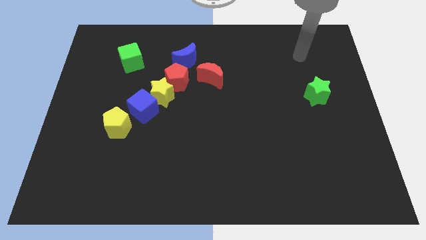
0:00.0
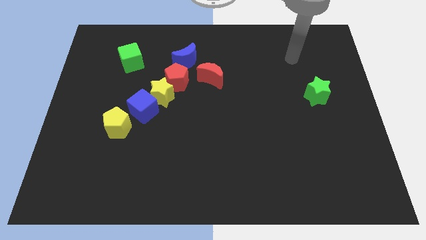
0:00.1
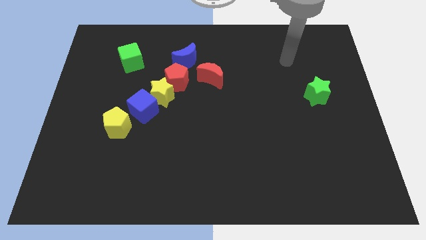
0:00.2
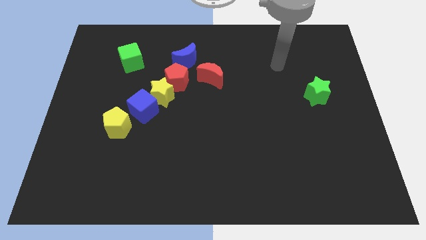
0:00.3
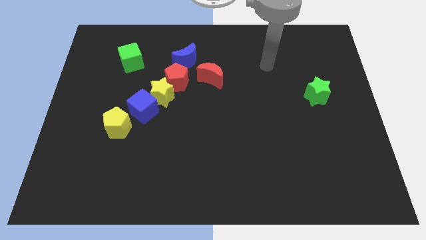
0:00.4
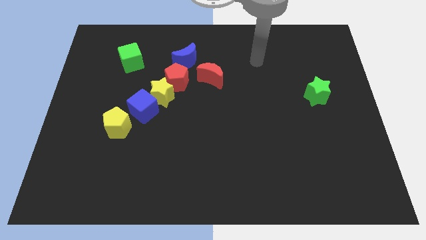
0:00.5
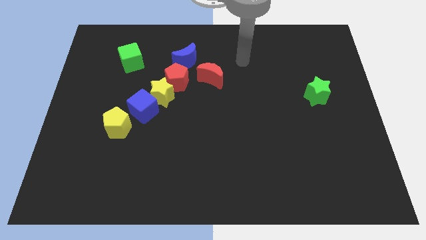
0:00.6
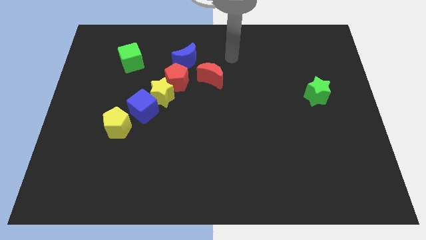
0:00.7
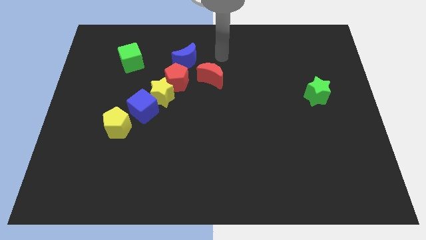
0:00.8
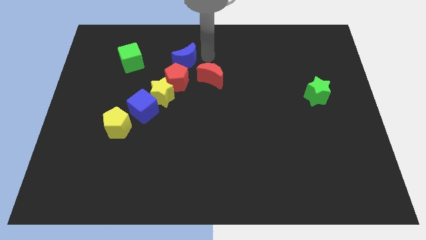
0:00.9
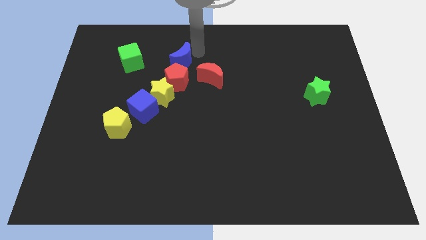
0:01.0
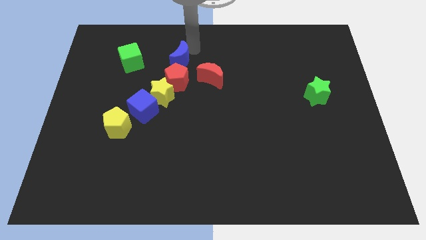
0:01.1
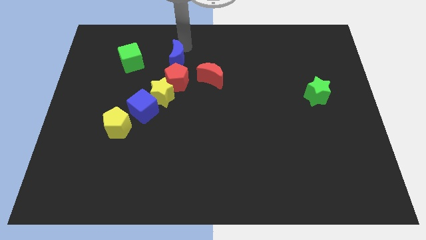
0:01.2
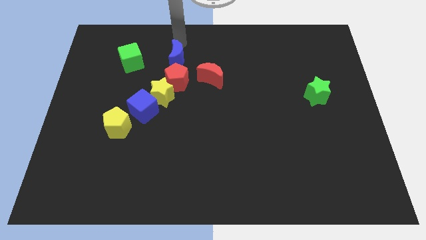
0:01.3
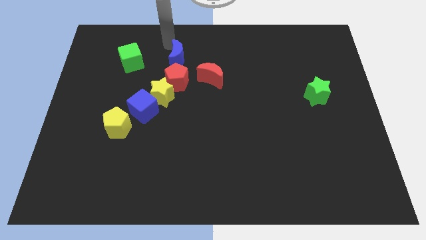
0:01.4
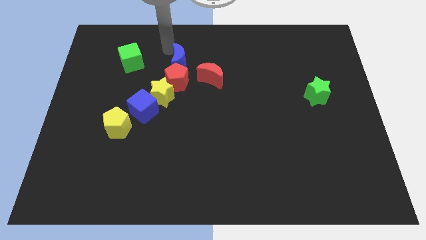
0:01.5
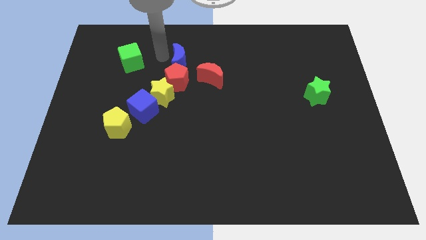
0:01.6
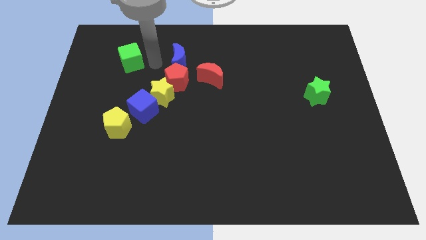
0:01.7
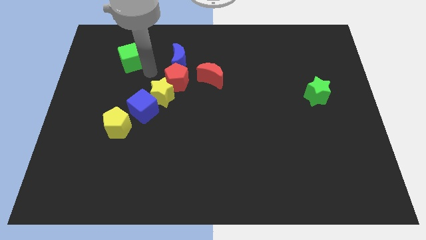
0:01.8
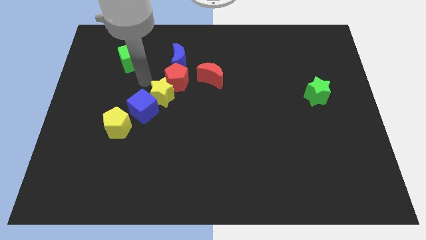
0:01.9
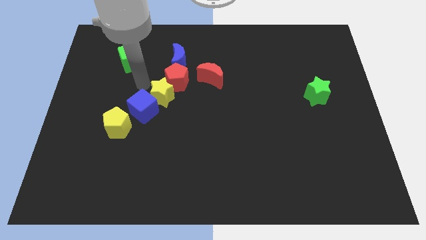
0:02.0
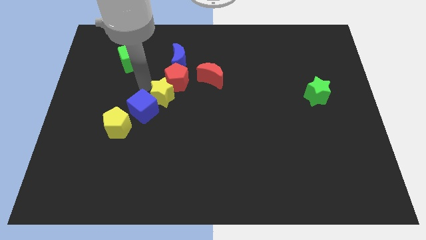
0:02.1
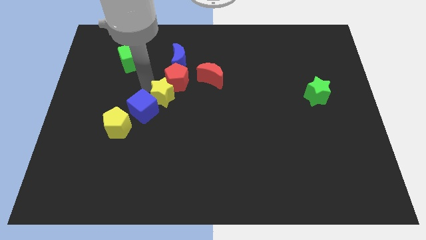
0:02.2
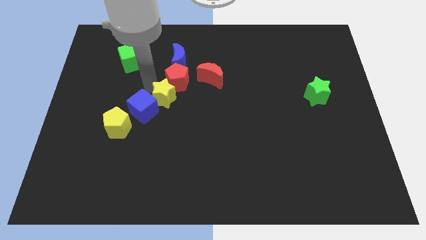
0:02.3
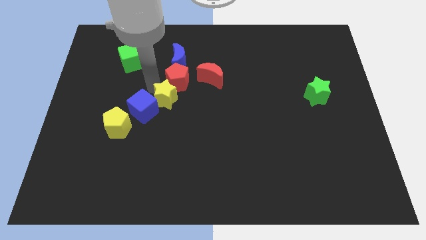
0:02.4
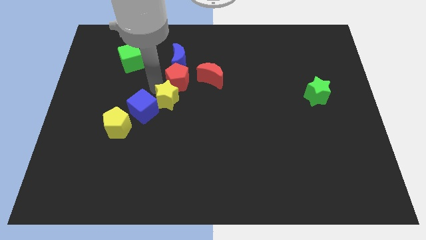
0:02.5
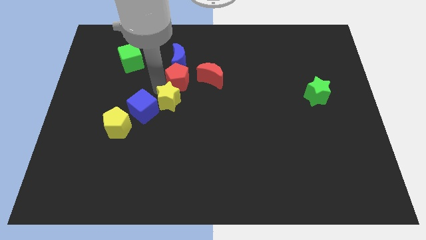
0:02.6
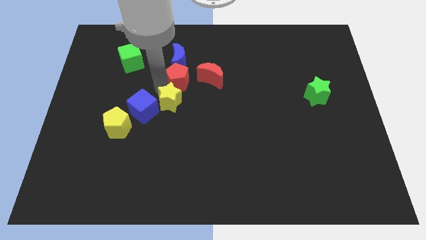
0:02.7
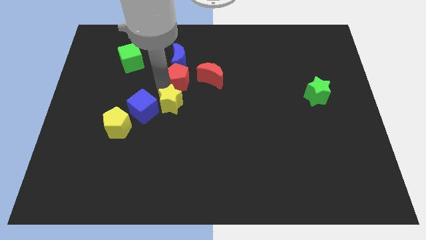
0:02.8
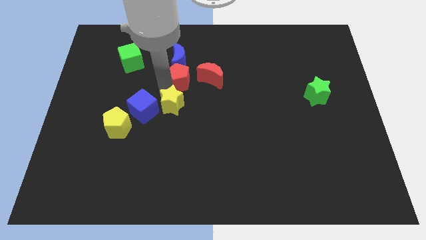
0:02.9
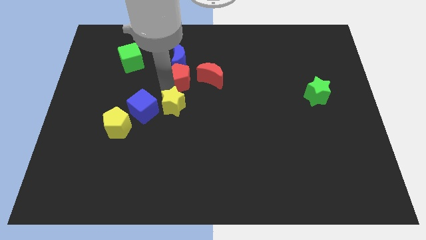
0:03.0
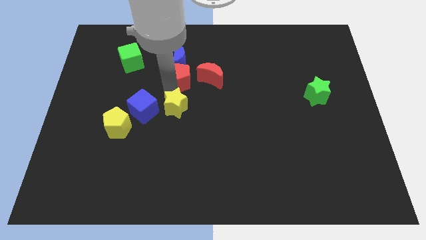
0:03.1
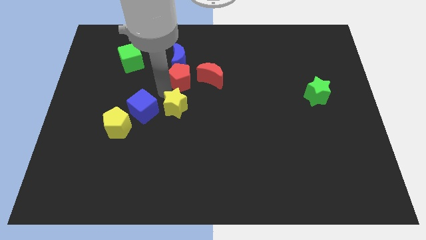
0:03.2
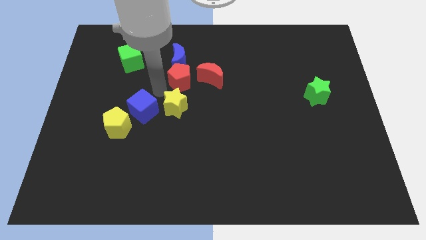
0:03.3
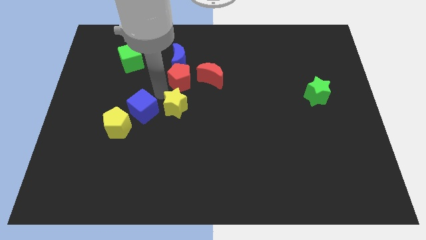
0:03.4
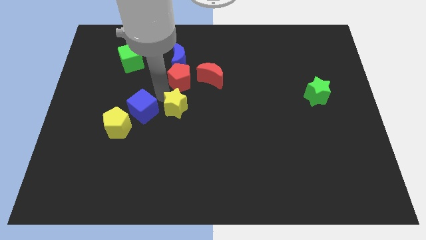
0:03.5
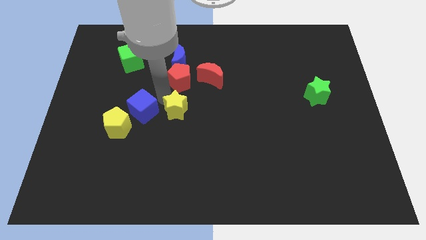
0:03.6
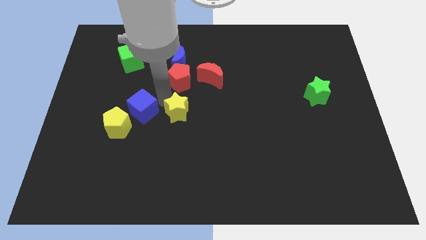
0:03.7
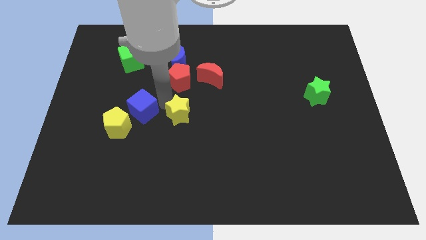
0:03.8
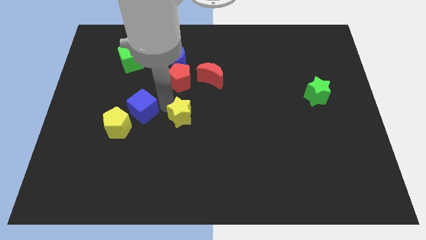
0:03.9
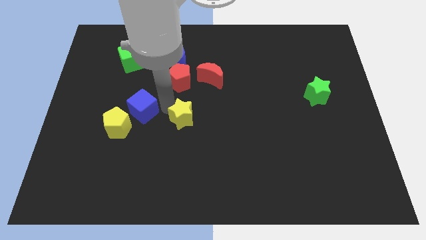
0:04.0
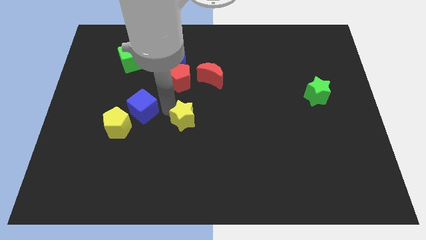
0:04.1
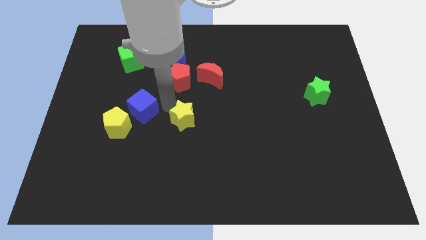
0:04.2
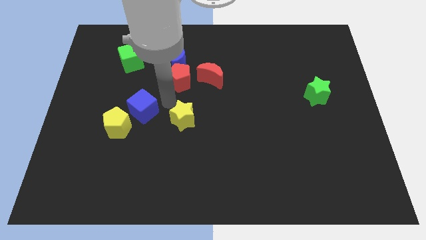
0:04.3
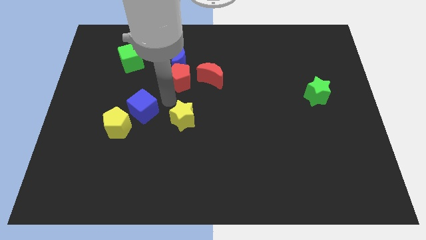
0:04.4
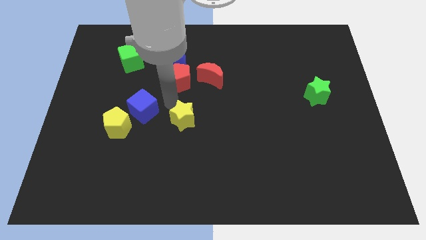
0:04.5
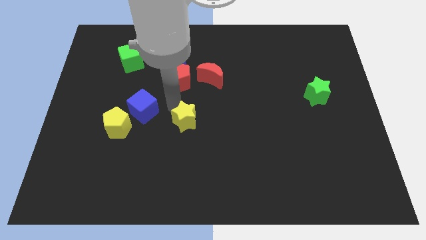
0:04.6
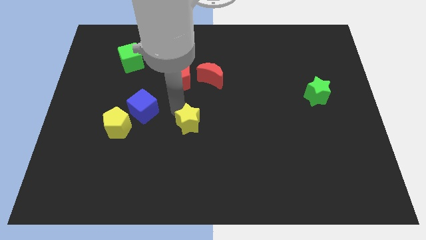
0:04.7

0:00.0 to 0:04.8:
move the yellow star away from the red pentagon and blue cube

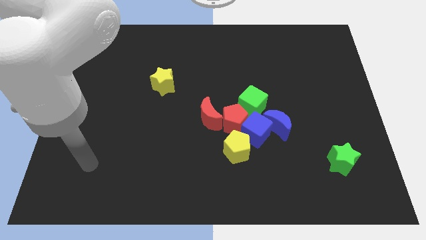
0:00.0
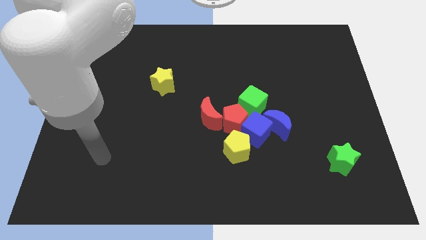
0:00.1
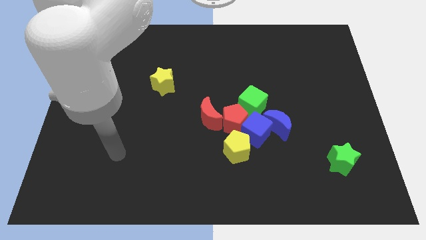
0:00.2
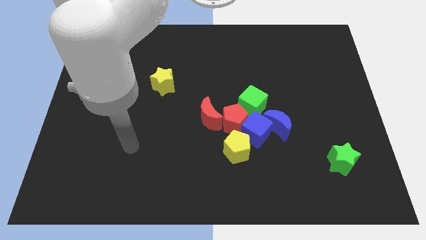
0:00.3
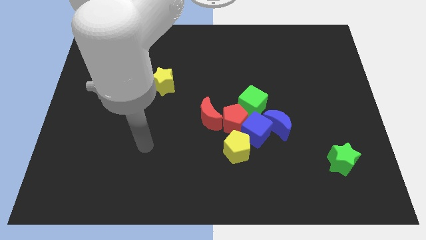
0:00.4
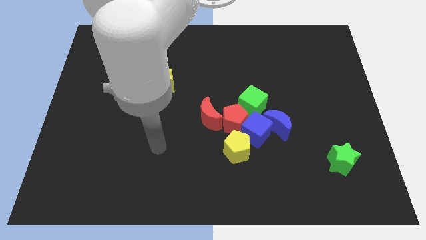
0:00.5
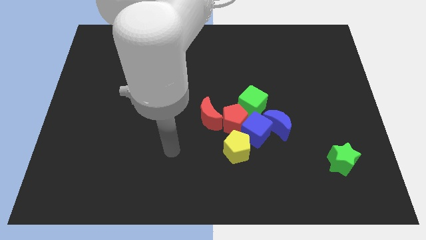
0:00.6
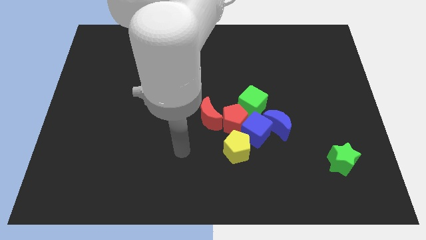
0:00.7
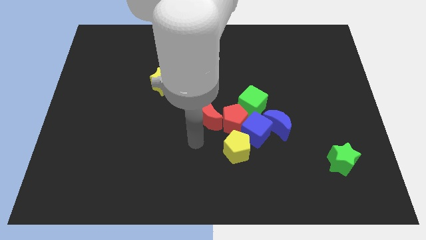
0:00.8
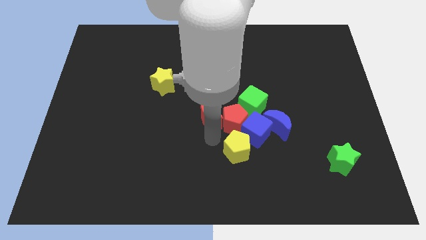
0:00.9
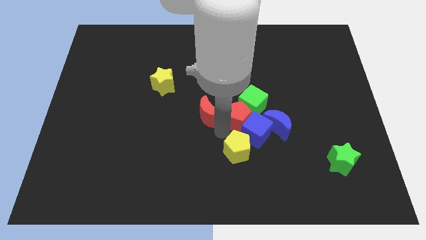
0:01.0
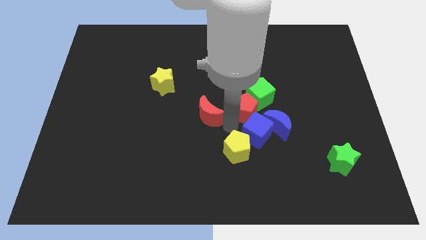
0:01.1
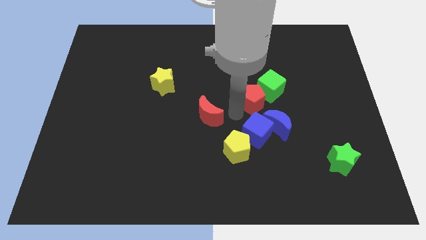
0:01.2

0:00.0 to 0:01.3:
pull the red moon apart from the red pentagon

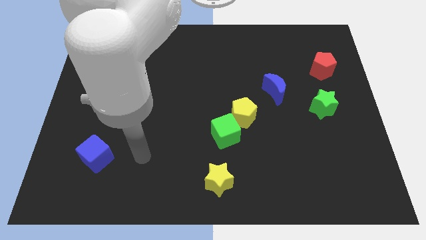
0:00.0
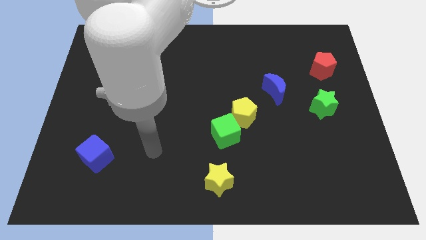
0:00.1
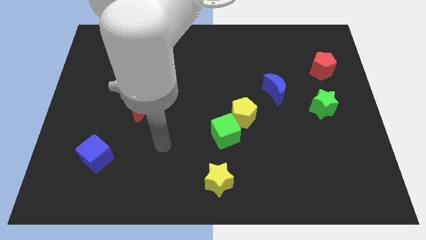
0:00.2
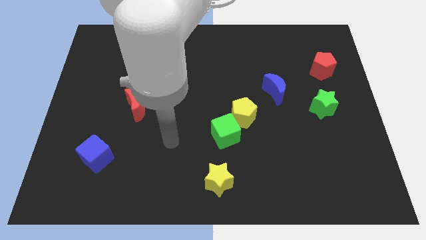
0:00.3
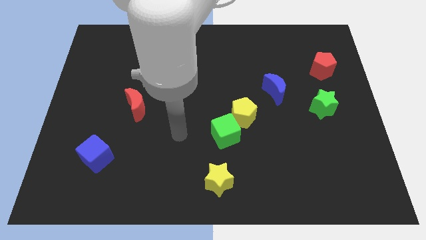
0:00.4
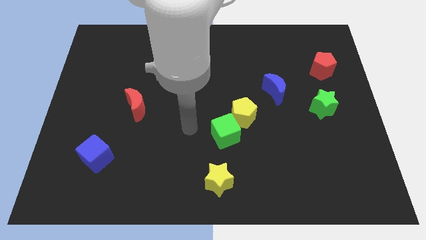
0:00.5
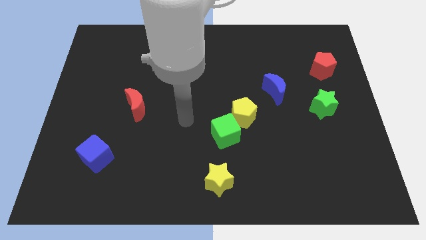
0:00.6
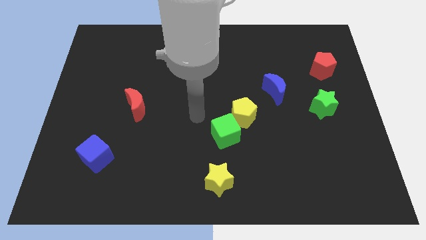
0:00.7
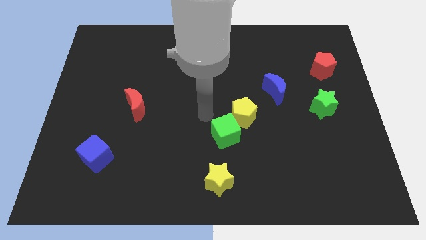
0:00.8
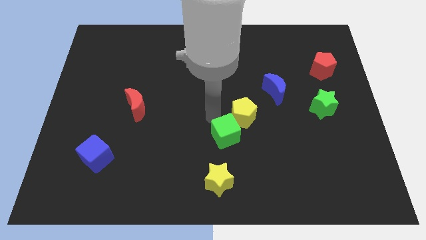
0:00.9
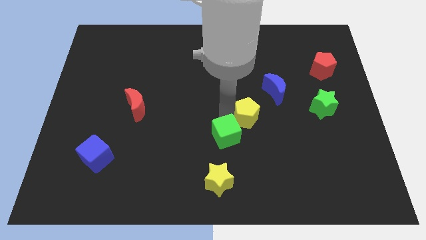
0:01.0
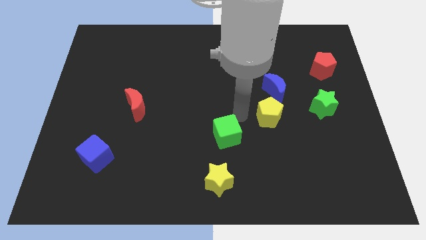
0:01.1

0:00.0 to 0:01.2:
pull the green cube apart from the yellow pentagon

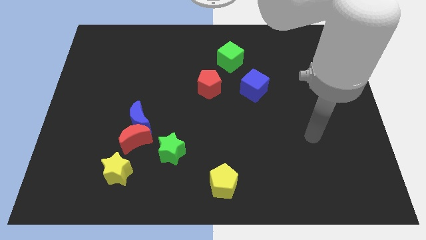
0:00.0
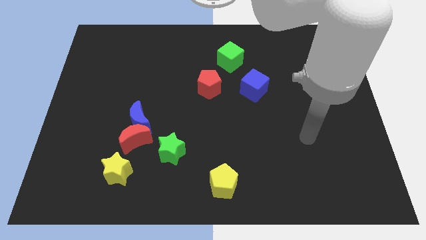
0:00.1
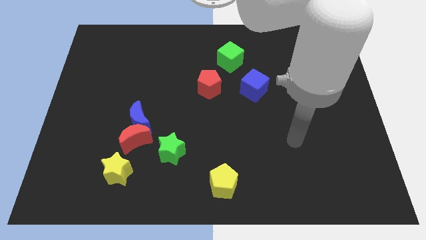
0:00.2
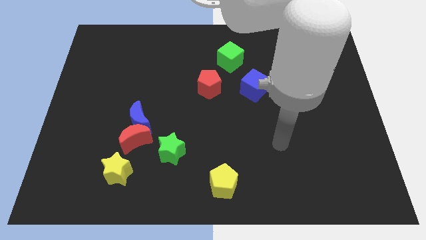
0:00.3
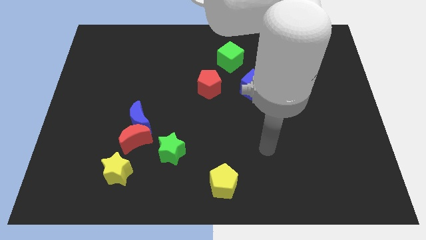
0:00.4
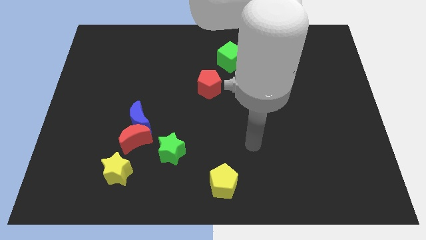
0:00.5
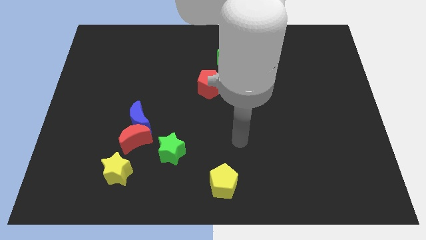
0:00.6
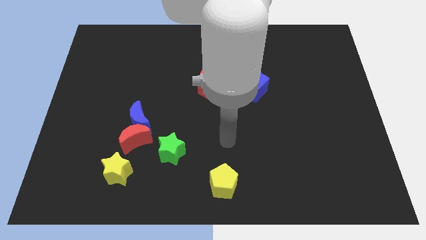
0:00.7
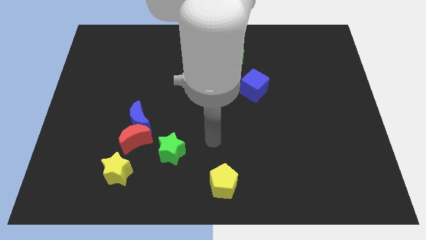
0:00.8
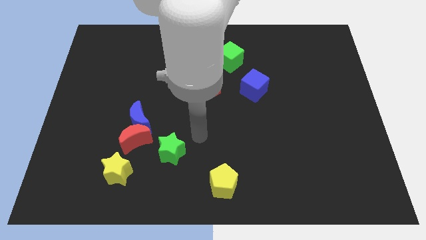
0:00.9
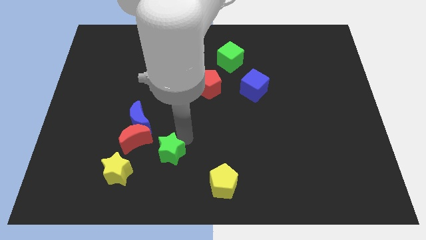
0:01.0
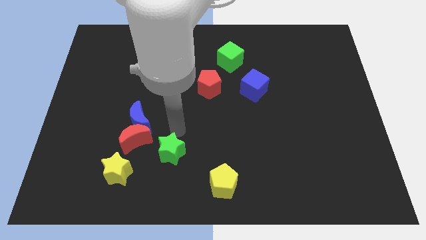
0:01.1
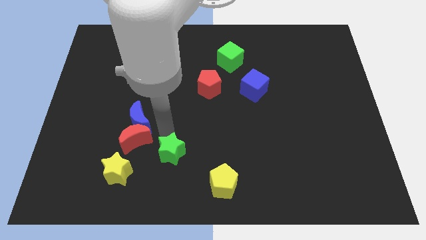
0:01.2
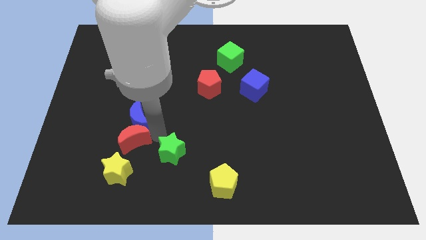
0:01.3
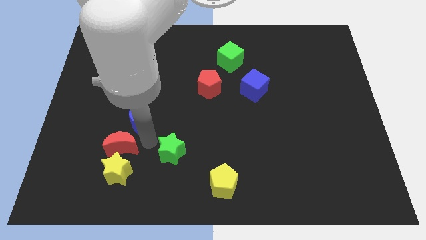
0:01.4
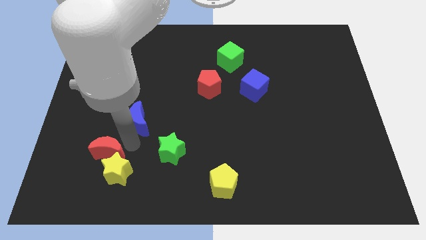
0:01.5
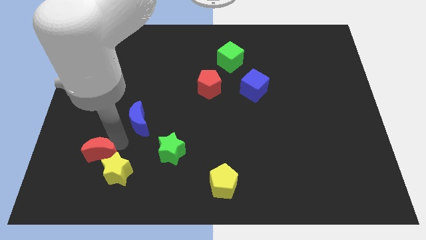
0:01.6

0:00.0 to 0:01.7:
separate the blue moon from the red moon

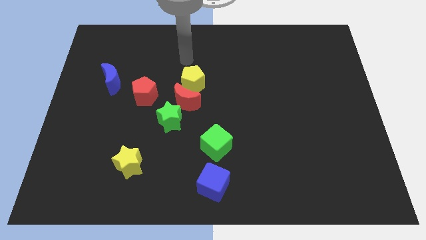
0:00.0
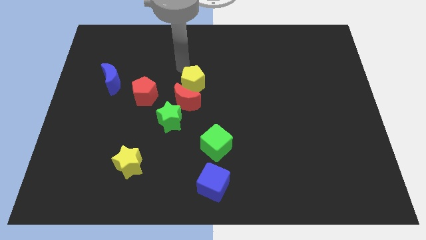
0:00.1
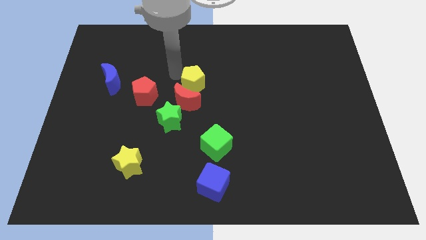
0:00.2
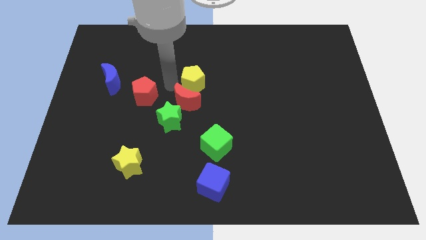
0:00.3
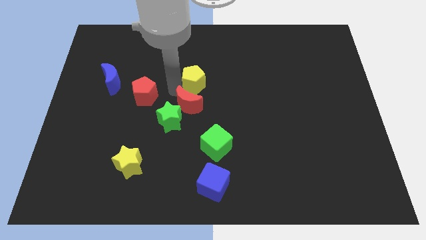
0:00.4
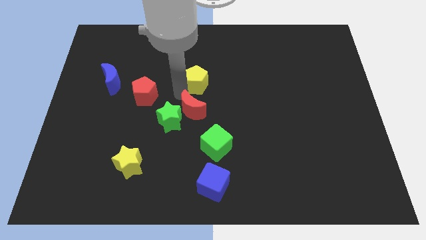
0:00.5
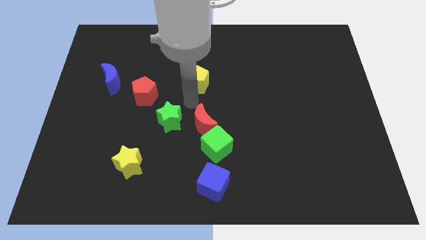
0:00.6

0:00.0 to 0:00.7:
separate the yellow pentagon from the red moon
